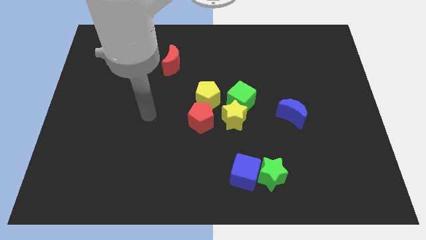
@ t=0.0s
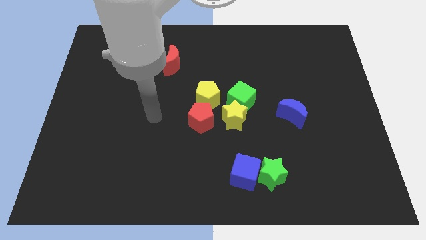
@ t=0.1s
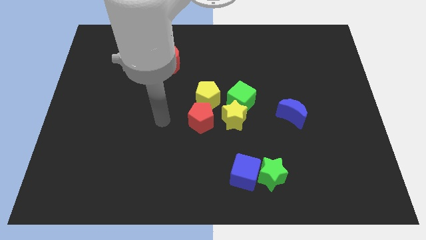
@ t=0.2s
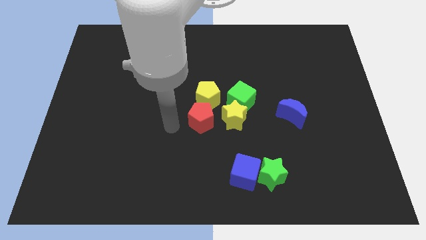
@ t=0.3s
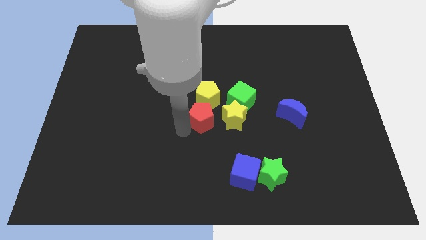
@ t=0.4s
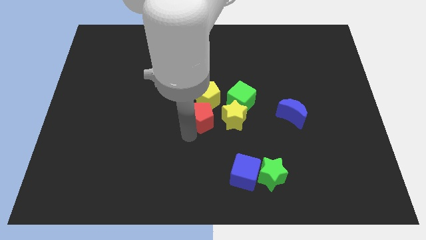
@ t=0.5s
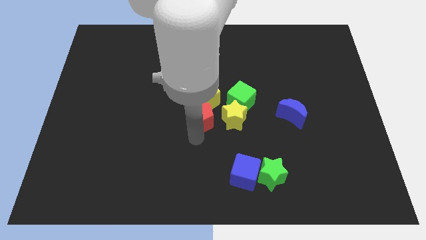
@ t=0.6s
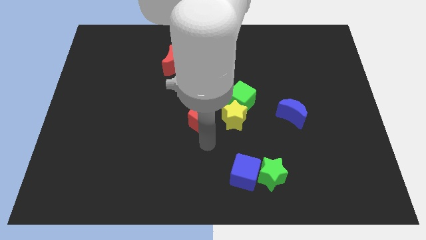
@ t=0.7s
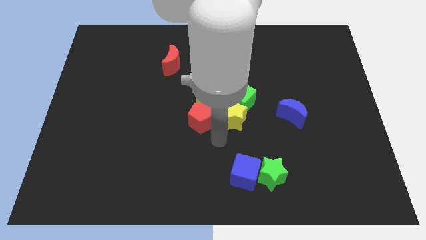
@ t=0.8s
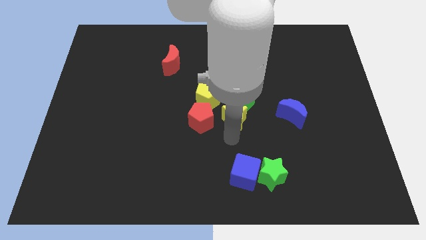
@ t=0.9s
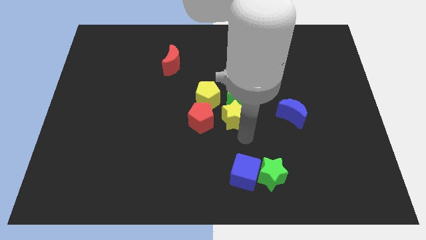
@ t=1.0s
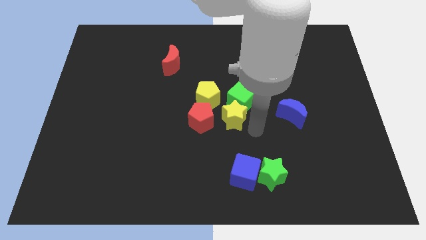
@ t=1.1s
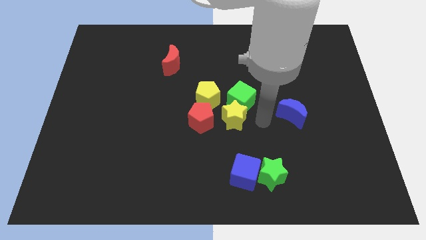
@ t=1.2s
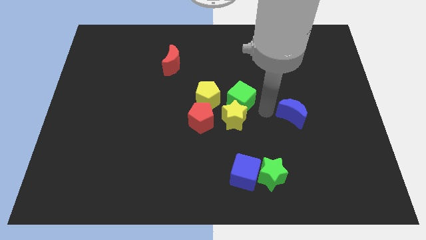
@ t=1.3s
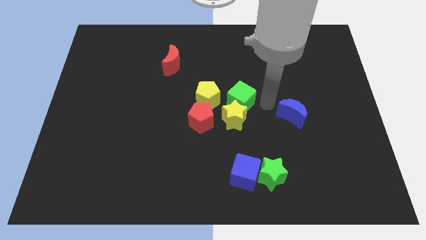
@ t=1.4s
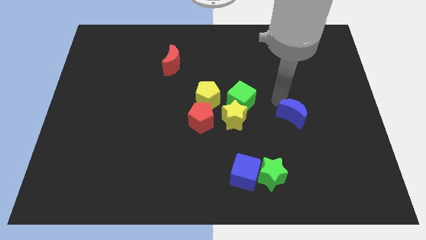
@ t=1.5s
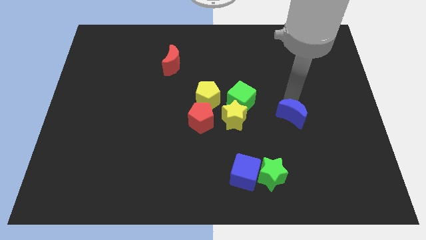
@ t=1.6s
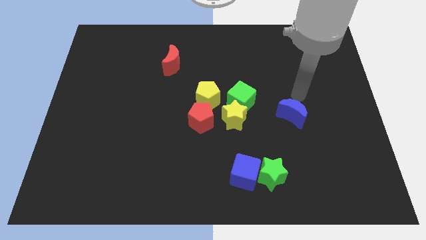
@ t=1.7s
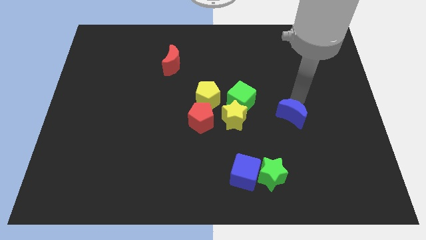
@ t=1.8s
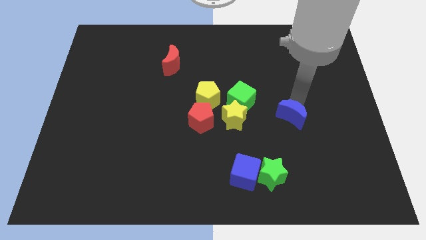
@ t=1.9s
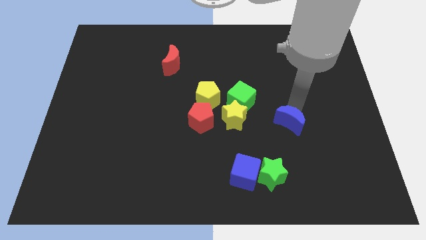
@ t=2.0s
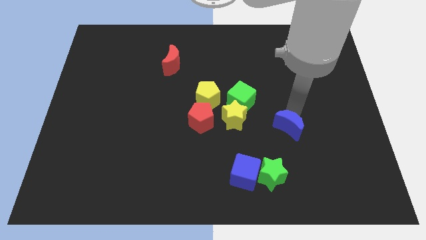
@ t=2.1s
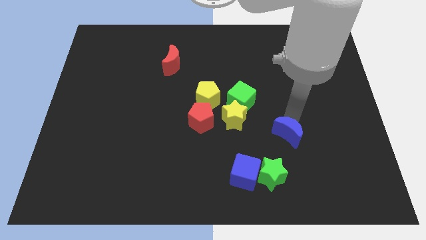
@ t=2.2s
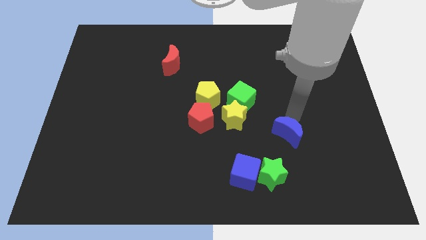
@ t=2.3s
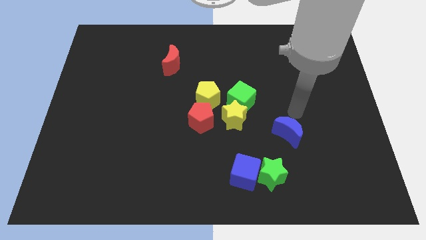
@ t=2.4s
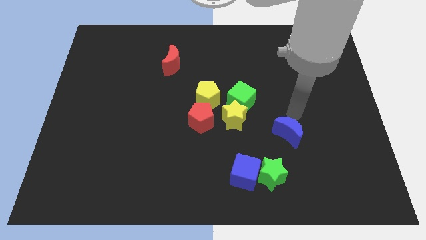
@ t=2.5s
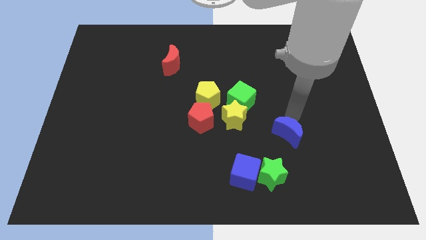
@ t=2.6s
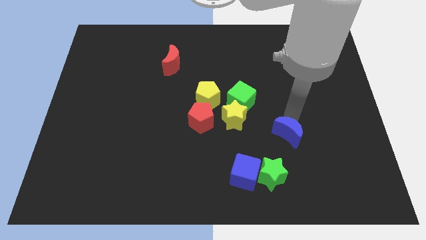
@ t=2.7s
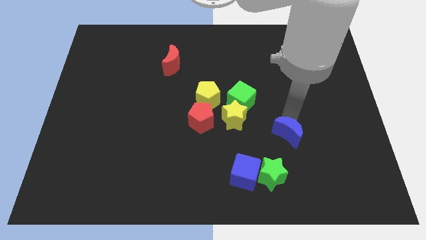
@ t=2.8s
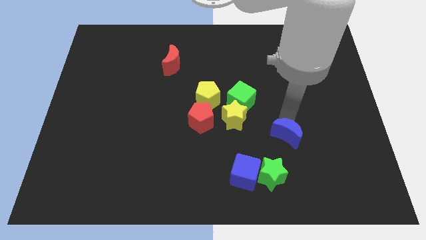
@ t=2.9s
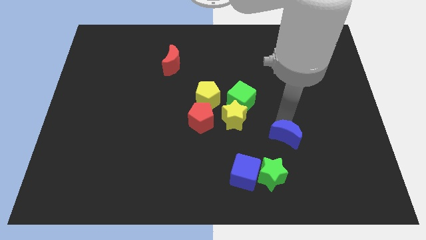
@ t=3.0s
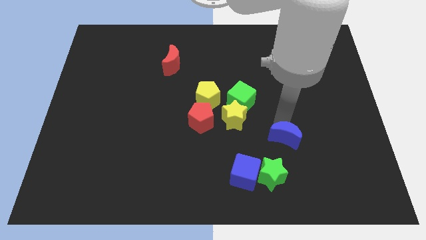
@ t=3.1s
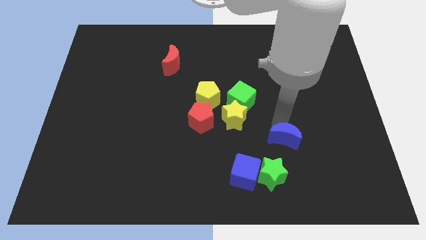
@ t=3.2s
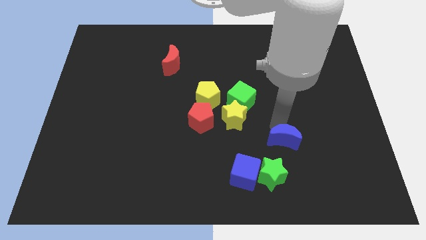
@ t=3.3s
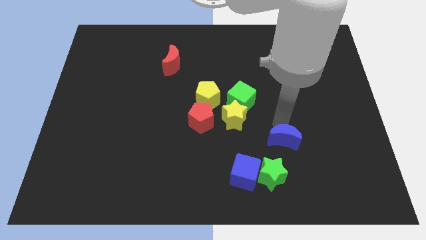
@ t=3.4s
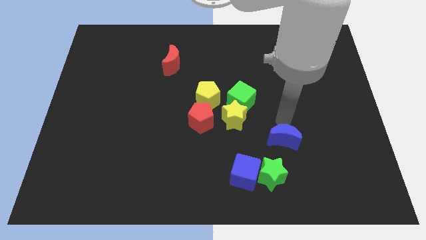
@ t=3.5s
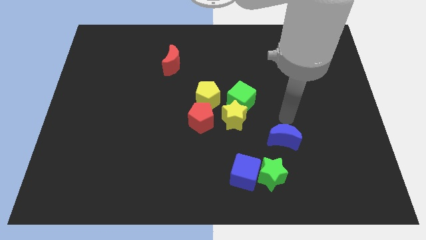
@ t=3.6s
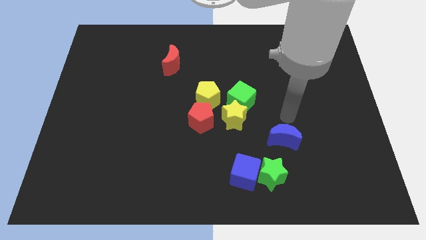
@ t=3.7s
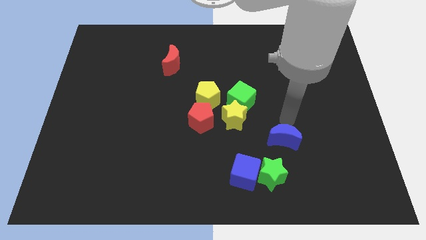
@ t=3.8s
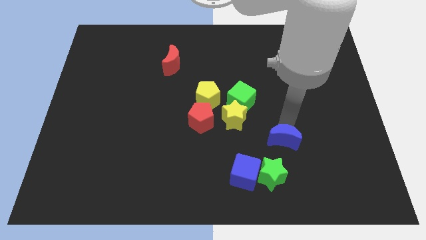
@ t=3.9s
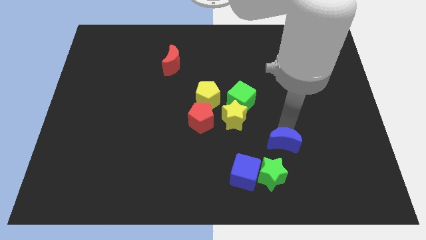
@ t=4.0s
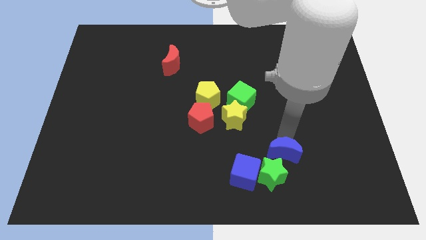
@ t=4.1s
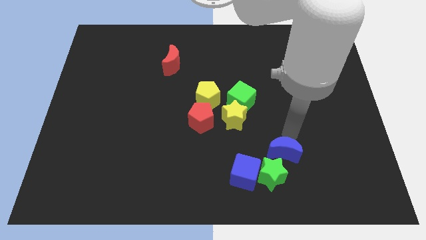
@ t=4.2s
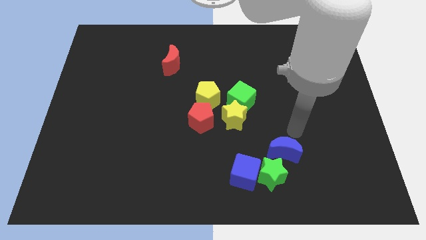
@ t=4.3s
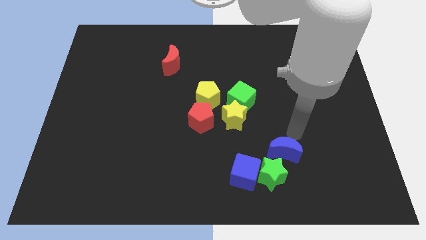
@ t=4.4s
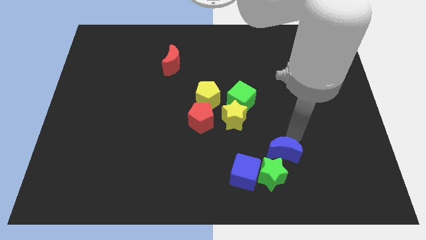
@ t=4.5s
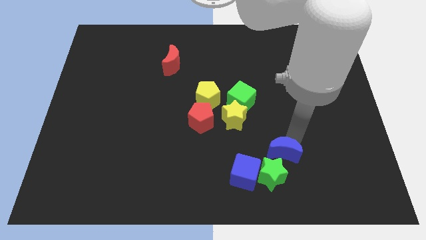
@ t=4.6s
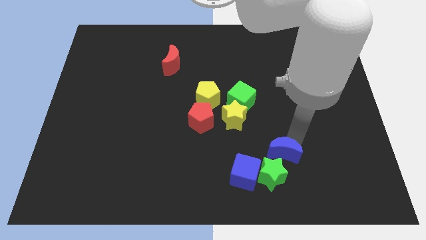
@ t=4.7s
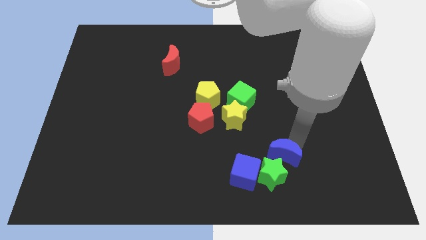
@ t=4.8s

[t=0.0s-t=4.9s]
put the blue moon towards the green star

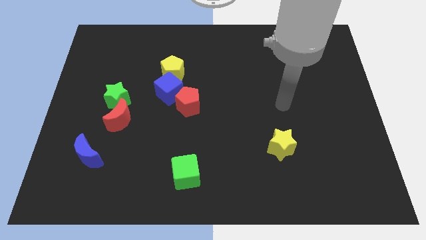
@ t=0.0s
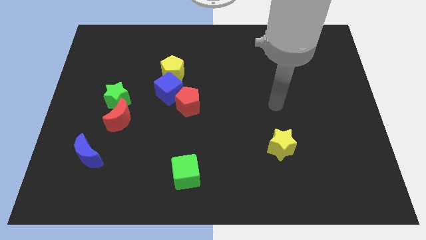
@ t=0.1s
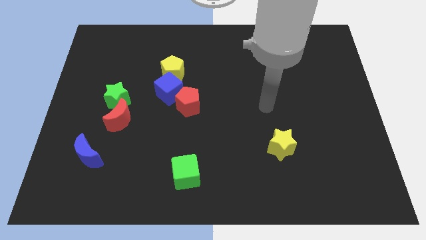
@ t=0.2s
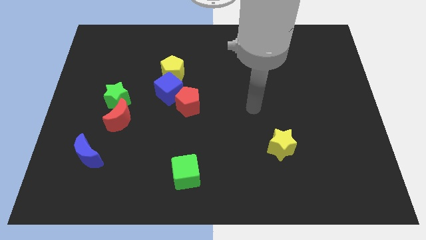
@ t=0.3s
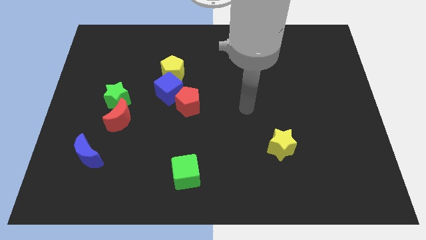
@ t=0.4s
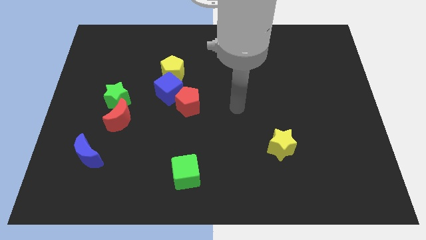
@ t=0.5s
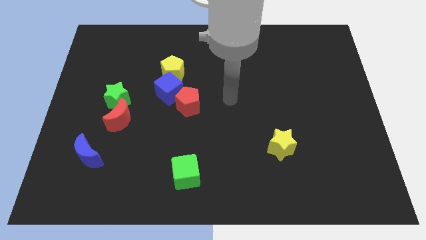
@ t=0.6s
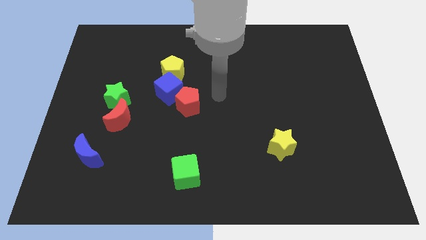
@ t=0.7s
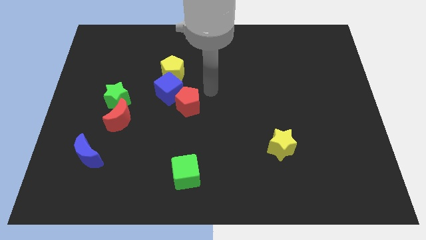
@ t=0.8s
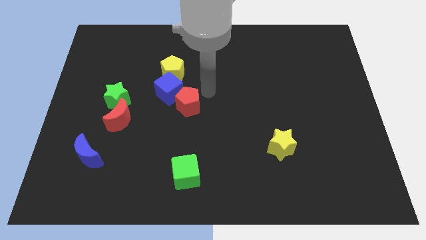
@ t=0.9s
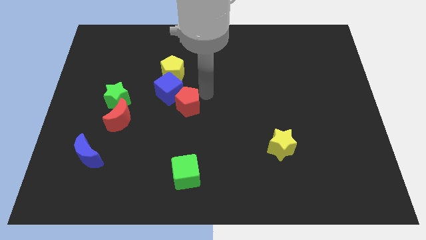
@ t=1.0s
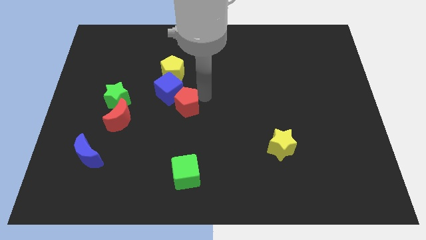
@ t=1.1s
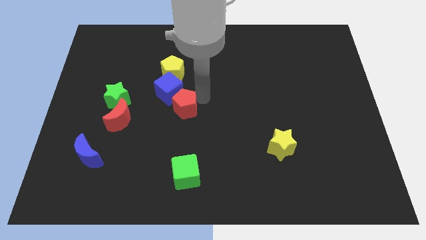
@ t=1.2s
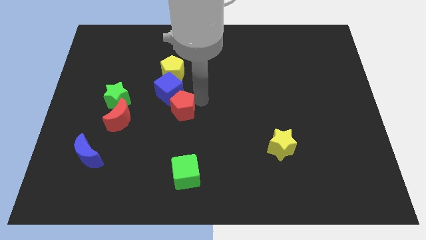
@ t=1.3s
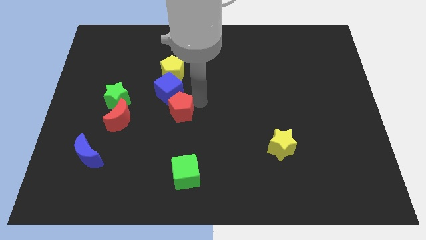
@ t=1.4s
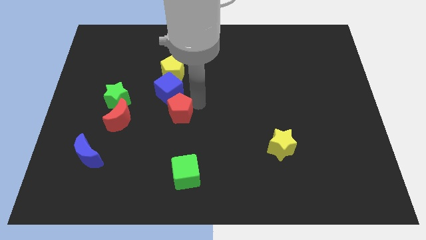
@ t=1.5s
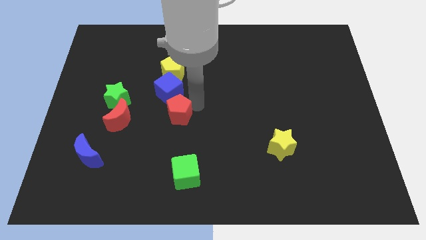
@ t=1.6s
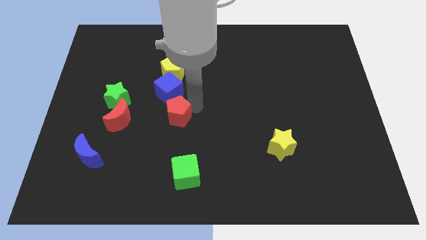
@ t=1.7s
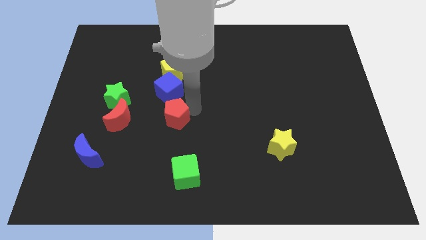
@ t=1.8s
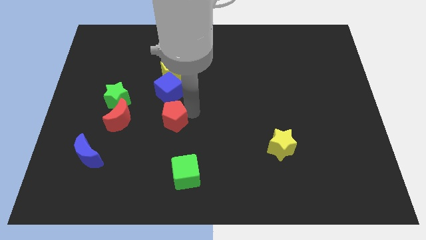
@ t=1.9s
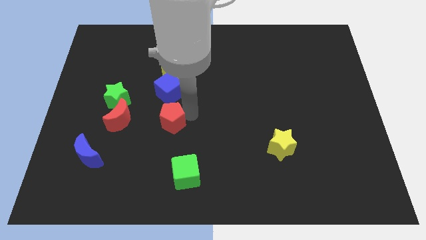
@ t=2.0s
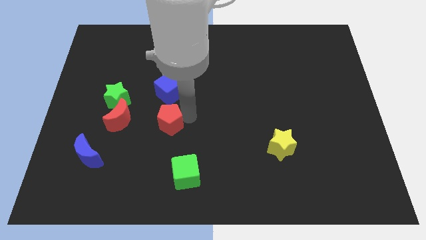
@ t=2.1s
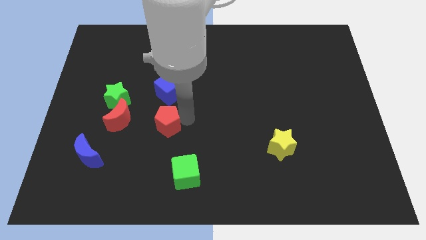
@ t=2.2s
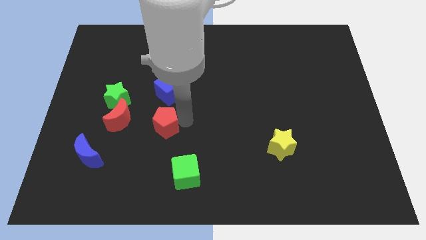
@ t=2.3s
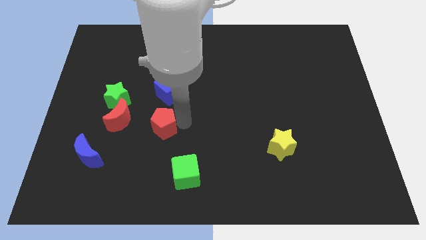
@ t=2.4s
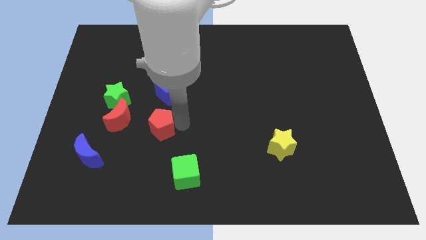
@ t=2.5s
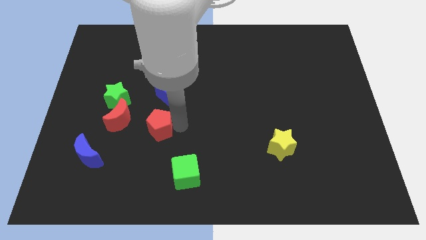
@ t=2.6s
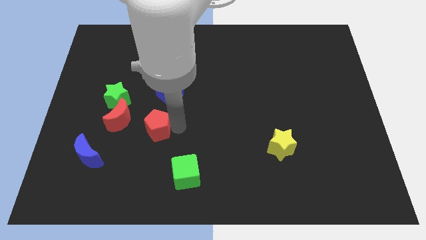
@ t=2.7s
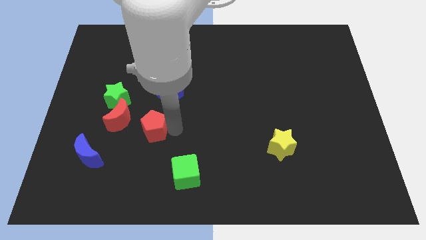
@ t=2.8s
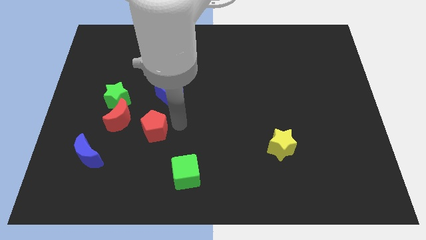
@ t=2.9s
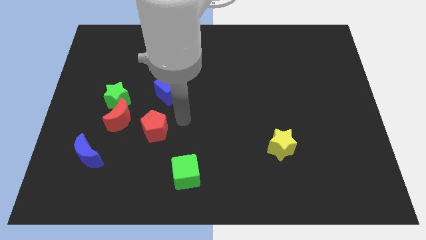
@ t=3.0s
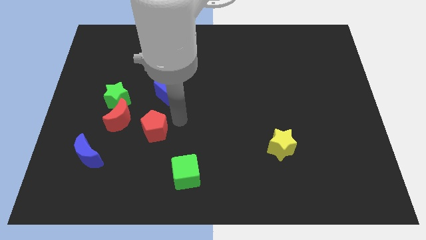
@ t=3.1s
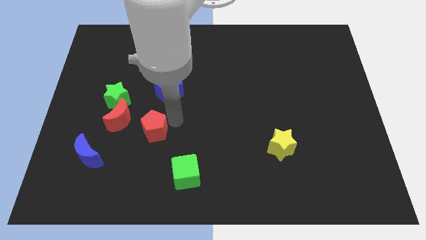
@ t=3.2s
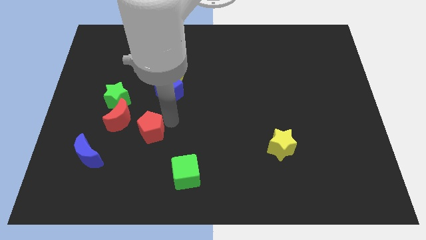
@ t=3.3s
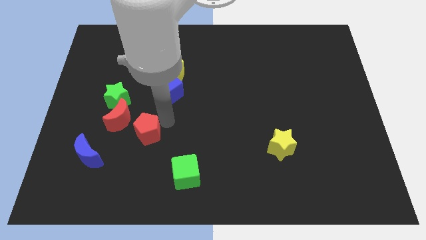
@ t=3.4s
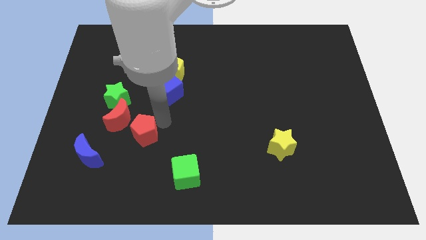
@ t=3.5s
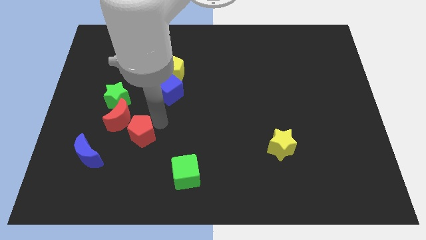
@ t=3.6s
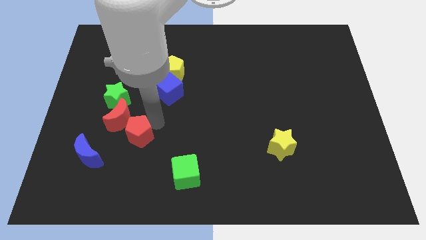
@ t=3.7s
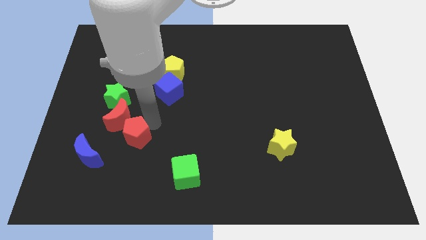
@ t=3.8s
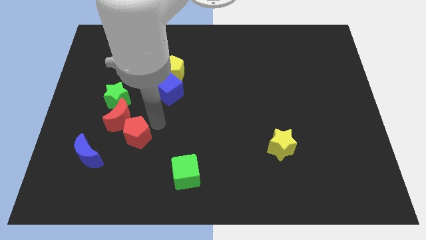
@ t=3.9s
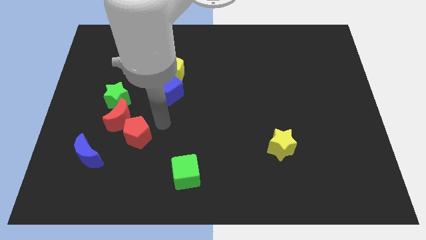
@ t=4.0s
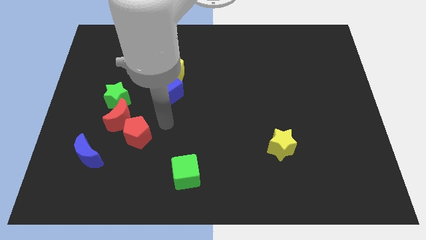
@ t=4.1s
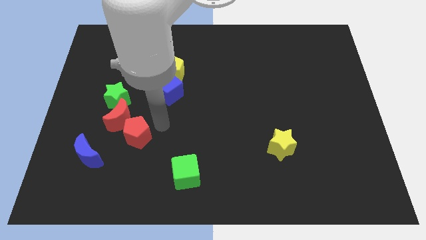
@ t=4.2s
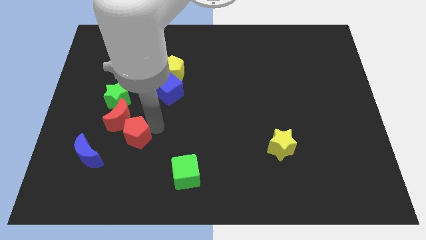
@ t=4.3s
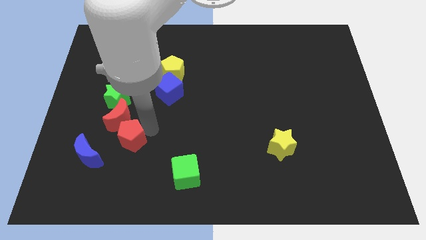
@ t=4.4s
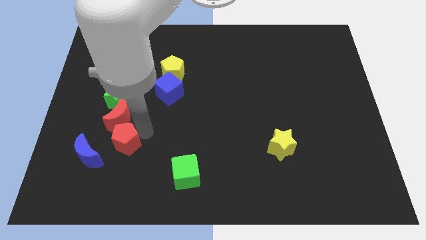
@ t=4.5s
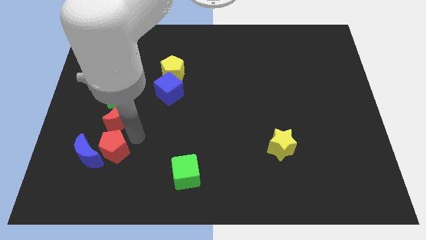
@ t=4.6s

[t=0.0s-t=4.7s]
move the red pentagon close to the blue moon
